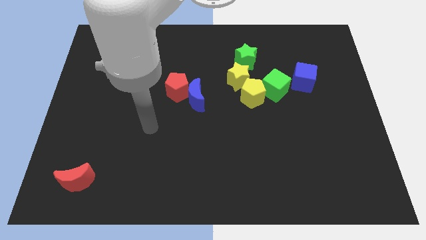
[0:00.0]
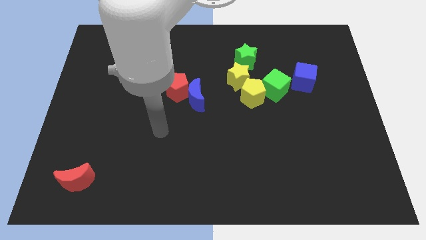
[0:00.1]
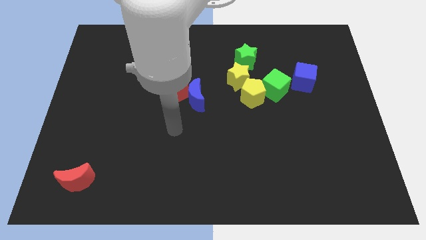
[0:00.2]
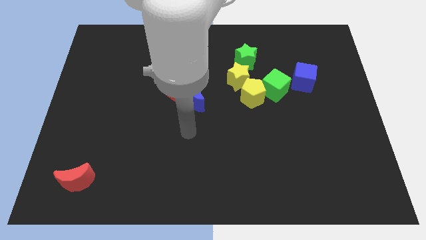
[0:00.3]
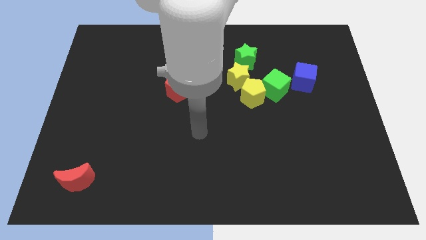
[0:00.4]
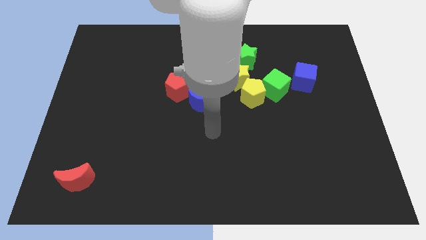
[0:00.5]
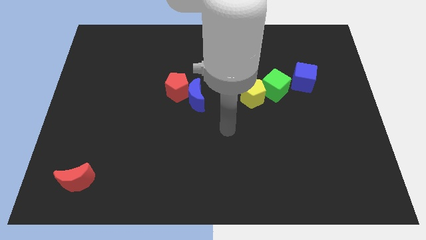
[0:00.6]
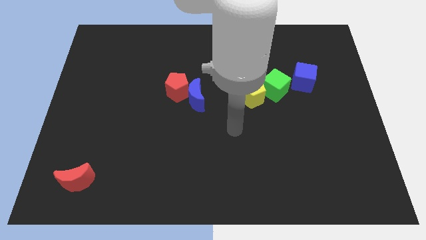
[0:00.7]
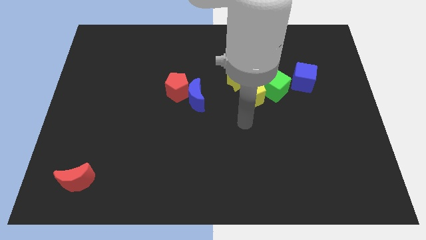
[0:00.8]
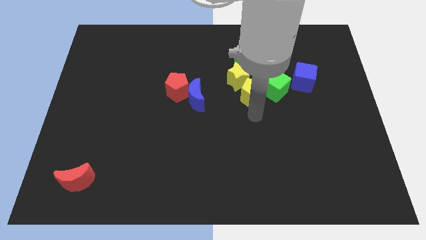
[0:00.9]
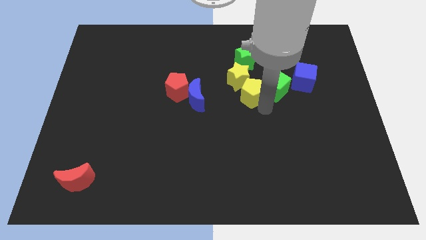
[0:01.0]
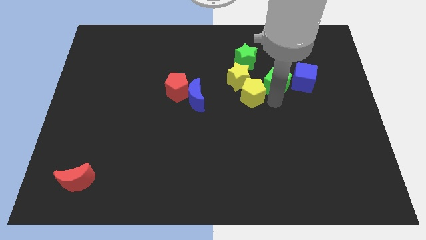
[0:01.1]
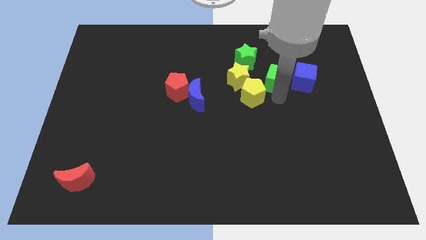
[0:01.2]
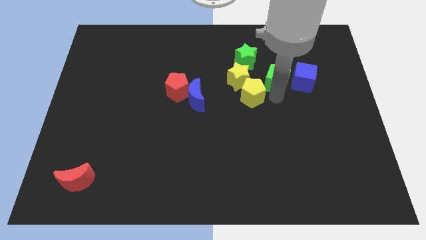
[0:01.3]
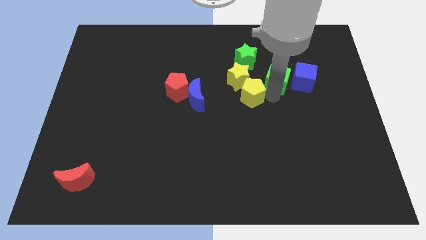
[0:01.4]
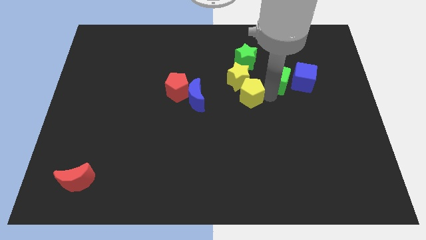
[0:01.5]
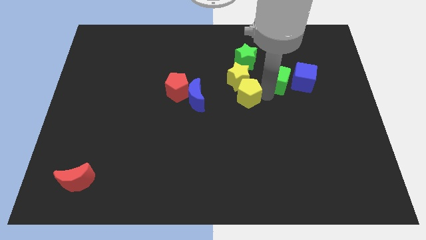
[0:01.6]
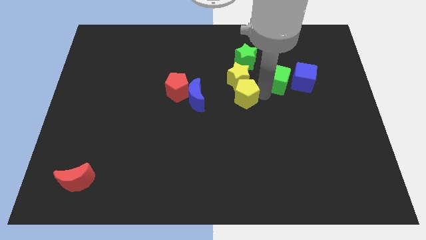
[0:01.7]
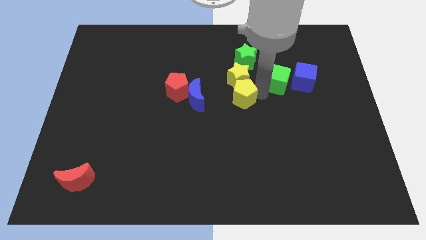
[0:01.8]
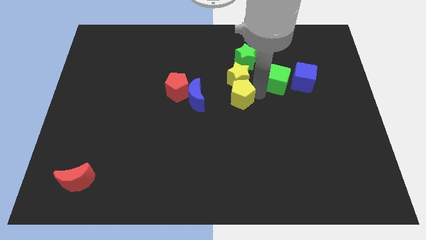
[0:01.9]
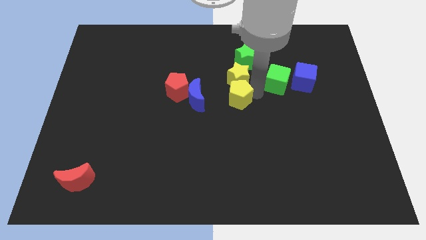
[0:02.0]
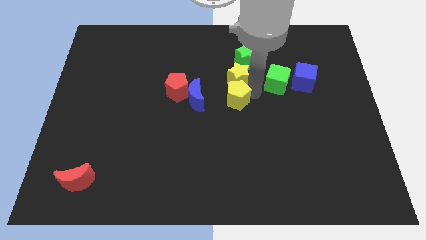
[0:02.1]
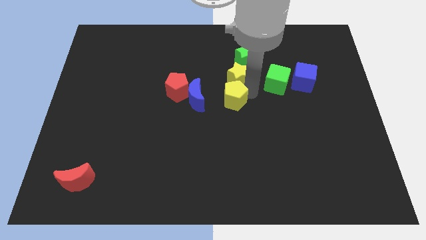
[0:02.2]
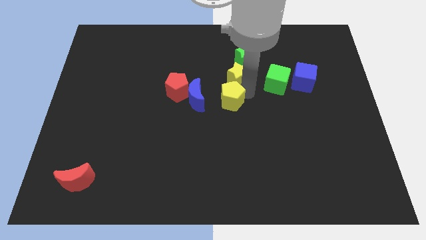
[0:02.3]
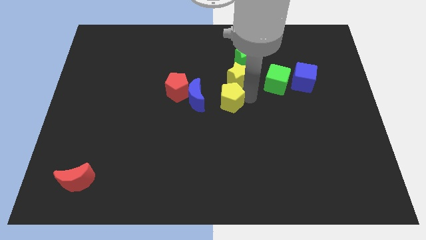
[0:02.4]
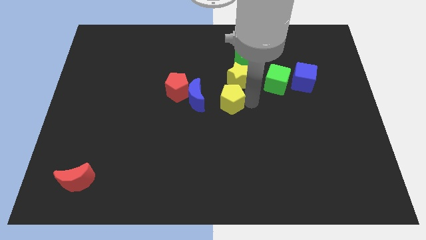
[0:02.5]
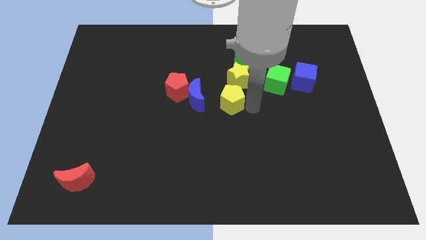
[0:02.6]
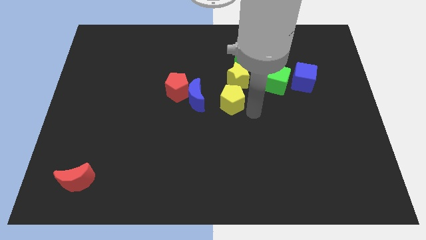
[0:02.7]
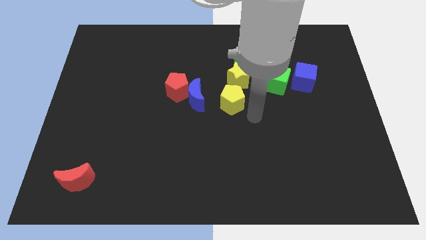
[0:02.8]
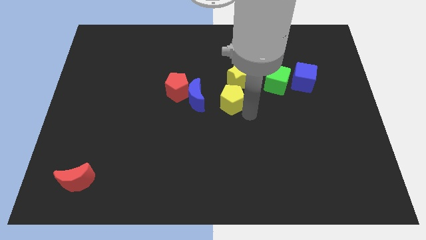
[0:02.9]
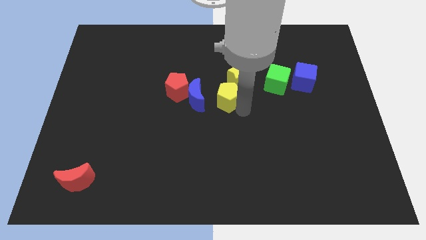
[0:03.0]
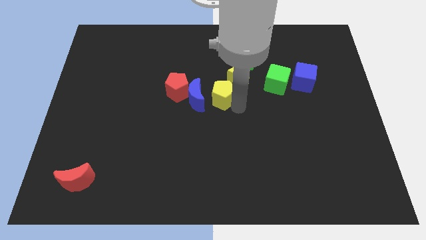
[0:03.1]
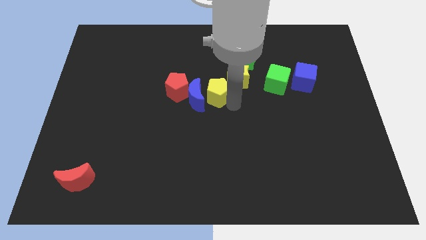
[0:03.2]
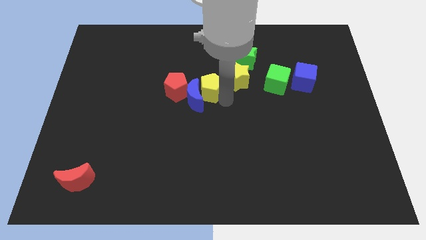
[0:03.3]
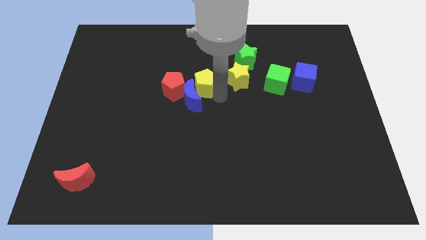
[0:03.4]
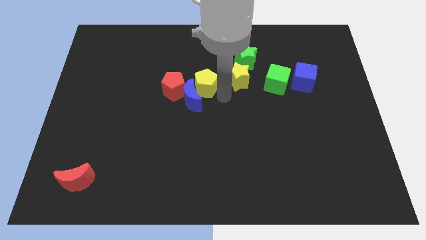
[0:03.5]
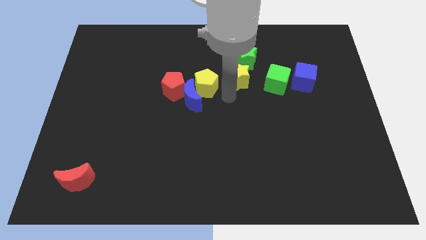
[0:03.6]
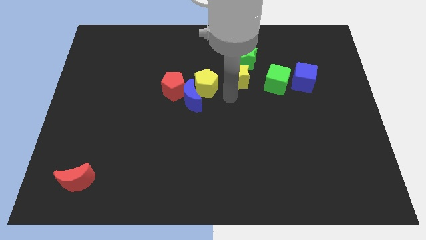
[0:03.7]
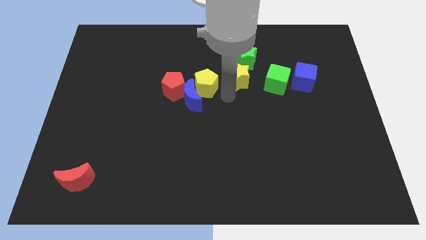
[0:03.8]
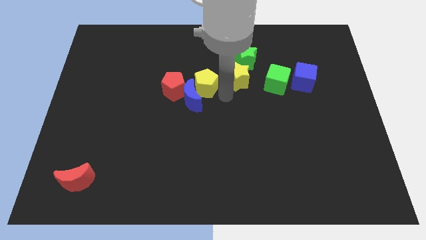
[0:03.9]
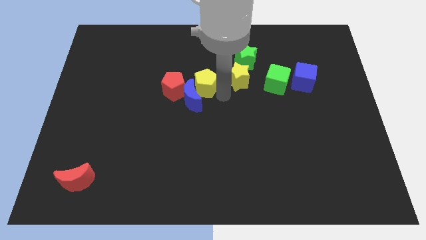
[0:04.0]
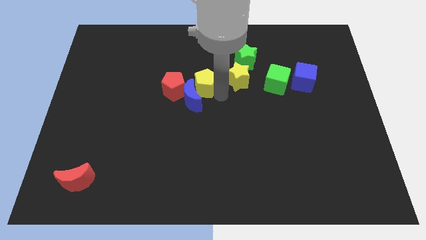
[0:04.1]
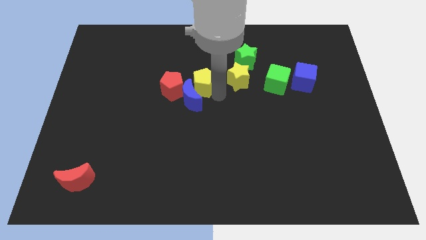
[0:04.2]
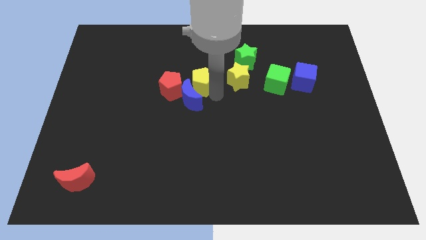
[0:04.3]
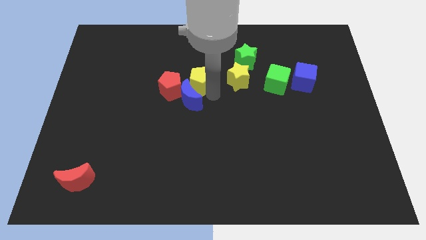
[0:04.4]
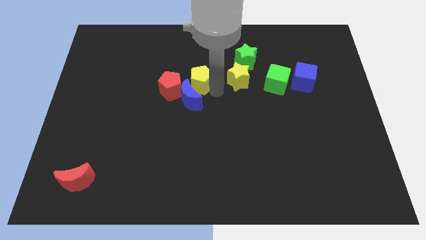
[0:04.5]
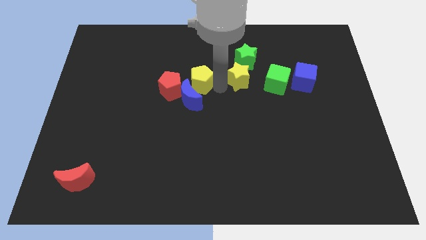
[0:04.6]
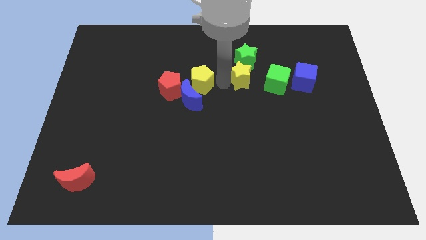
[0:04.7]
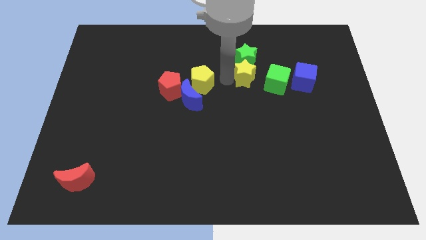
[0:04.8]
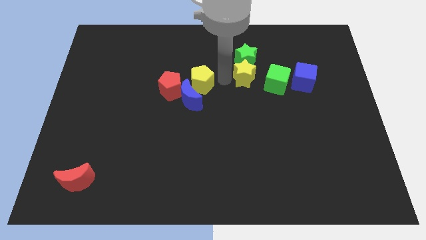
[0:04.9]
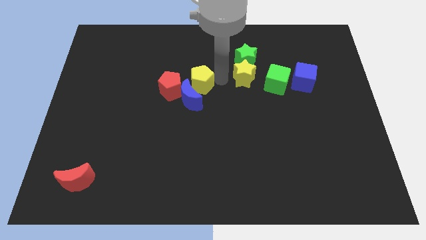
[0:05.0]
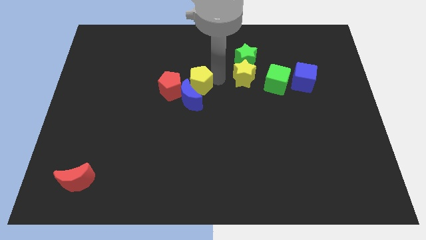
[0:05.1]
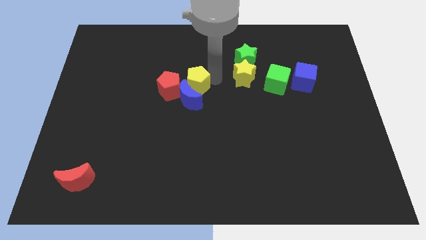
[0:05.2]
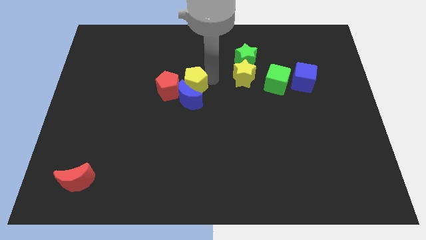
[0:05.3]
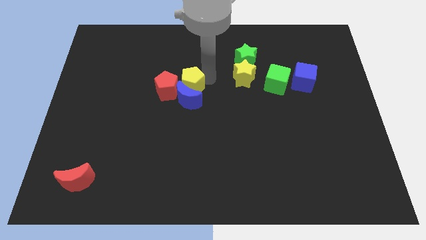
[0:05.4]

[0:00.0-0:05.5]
put the yellow pentagon next to the red pentagon

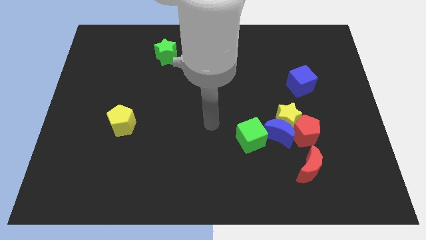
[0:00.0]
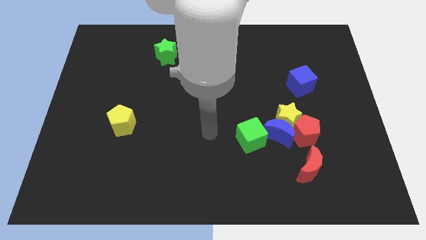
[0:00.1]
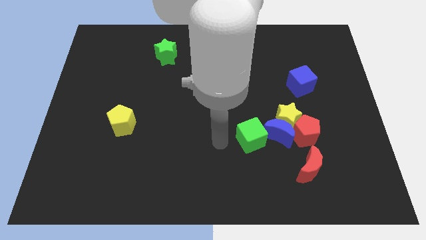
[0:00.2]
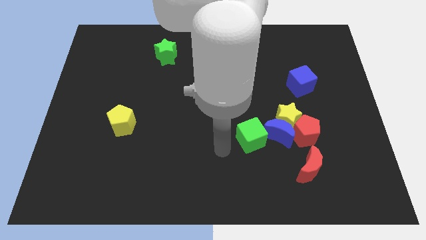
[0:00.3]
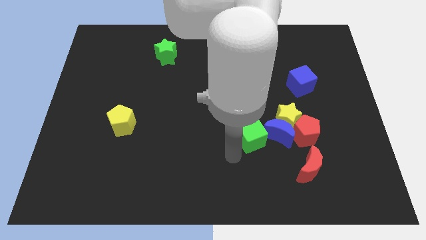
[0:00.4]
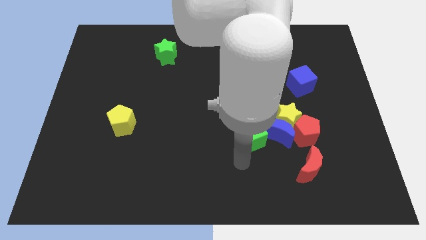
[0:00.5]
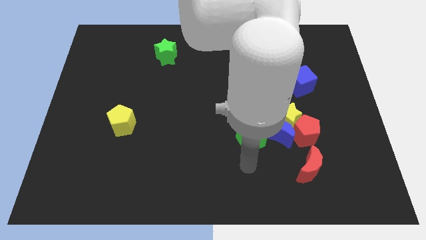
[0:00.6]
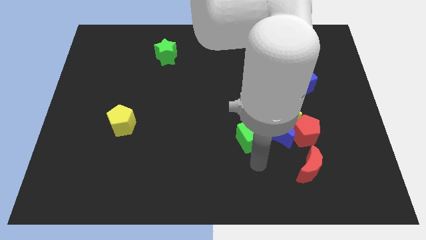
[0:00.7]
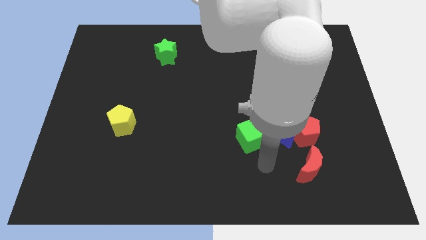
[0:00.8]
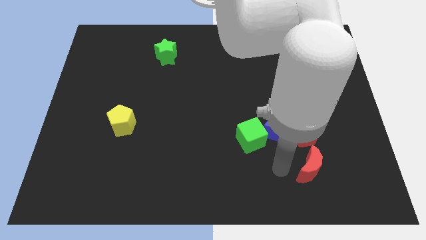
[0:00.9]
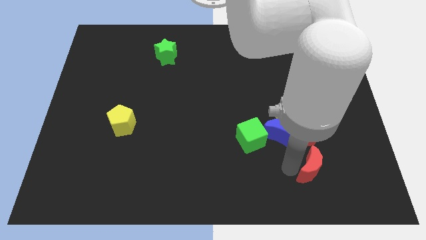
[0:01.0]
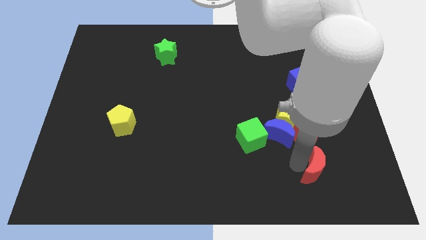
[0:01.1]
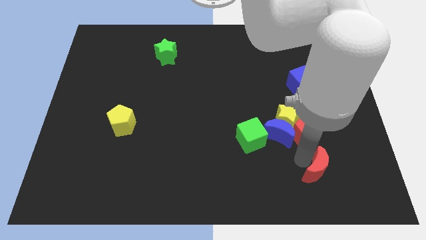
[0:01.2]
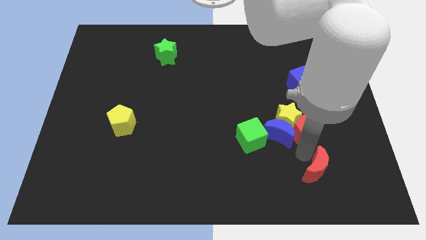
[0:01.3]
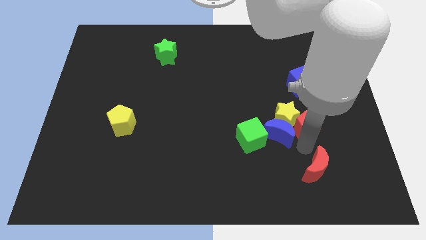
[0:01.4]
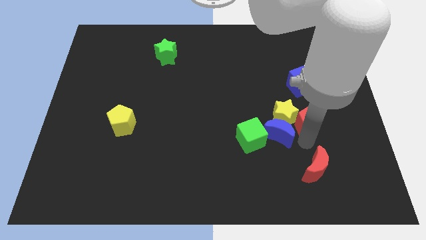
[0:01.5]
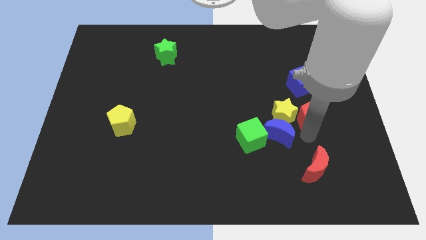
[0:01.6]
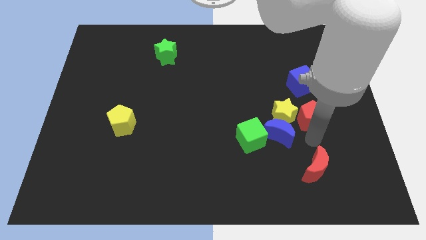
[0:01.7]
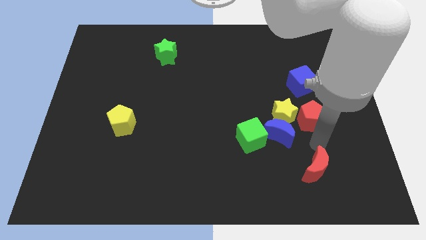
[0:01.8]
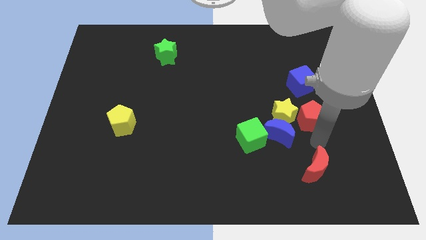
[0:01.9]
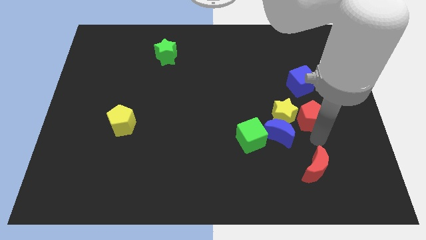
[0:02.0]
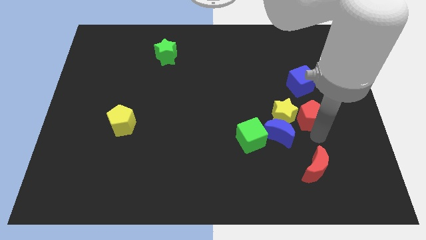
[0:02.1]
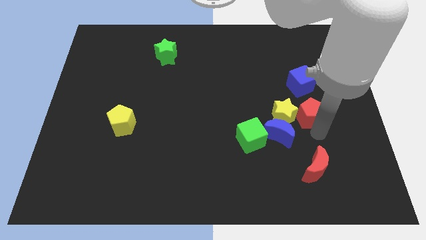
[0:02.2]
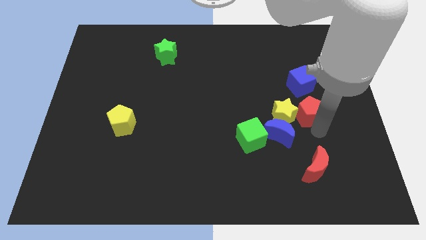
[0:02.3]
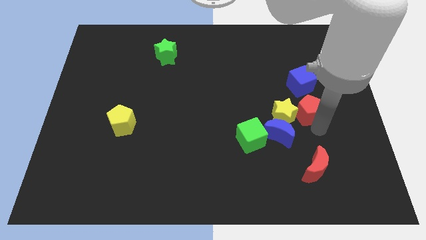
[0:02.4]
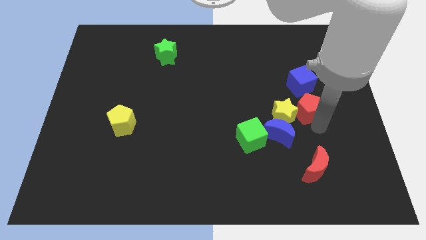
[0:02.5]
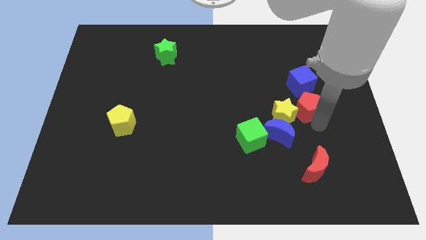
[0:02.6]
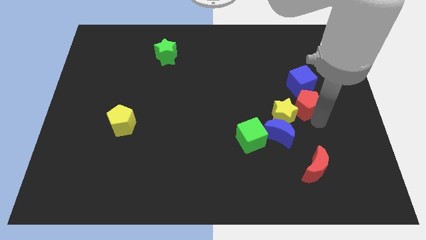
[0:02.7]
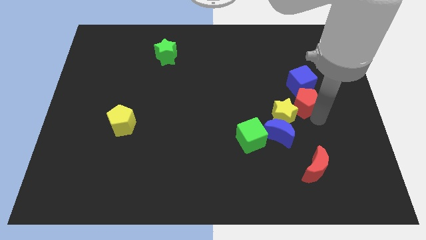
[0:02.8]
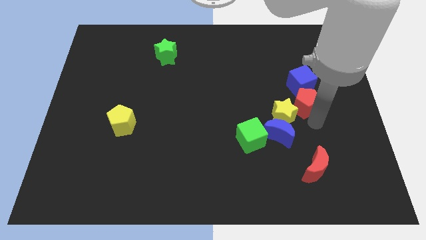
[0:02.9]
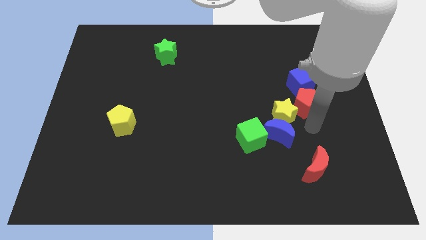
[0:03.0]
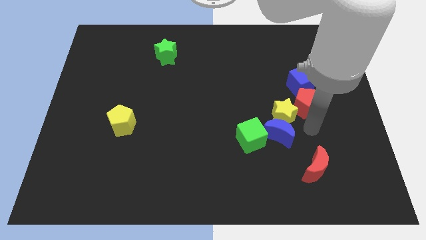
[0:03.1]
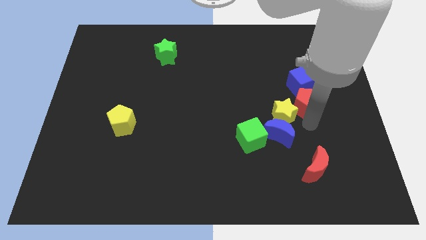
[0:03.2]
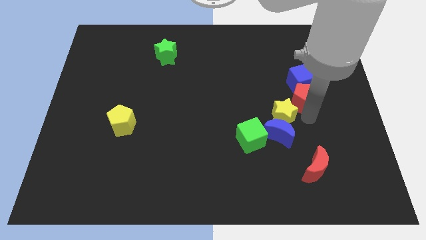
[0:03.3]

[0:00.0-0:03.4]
put the red pentagon next to the blue cube
